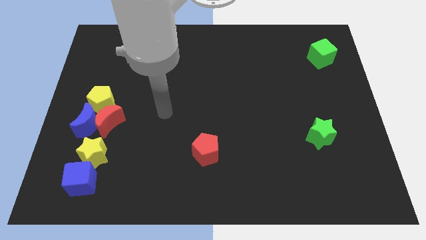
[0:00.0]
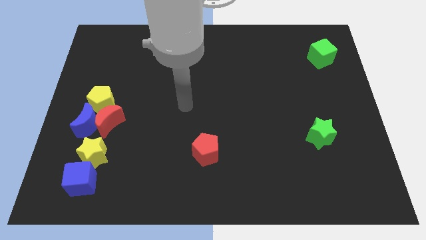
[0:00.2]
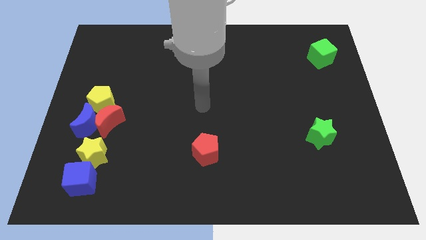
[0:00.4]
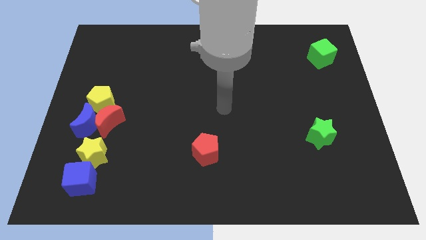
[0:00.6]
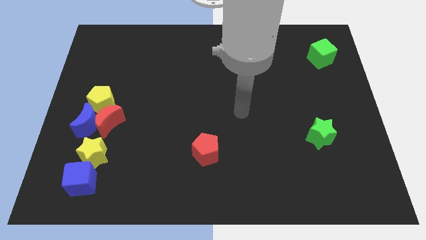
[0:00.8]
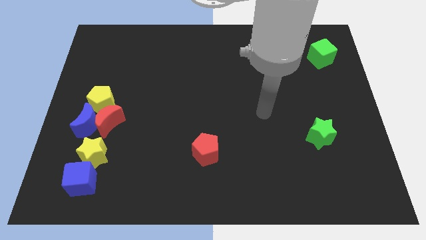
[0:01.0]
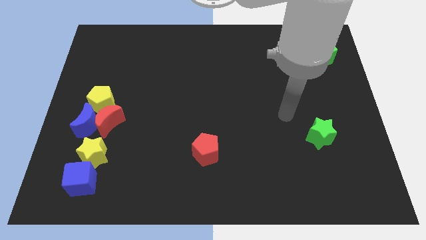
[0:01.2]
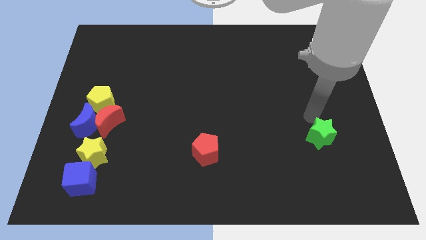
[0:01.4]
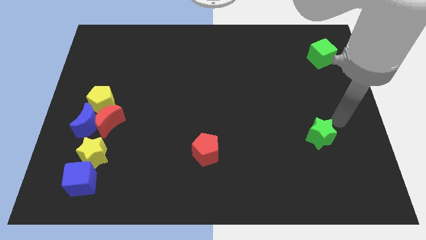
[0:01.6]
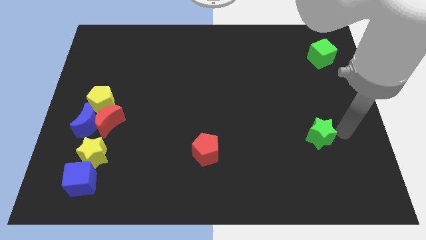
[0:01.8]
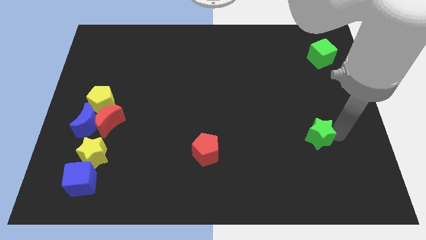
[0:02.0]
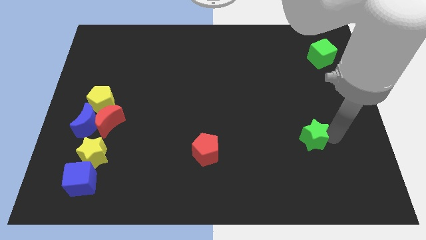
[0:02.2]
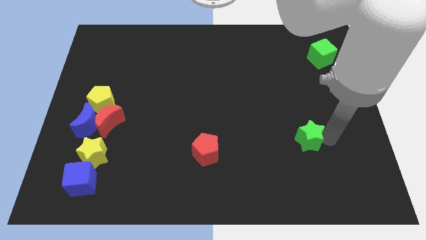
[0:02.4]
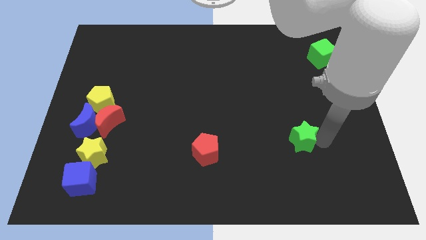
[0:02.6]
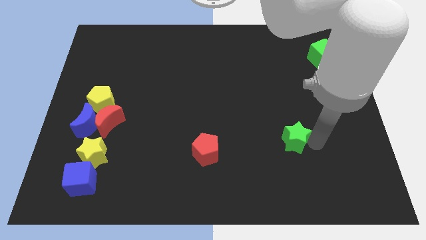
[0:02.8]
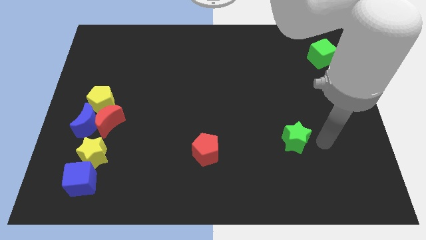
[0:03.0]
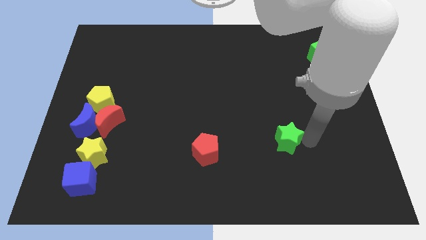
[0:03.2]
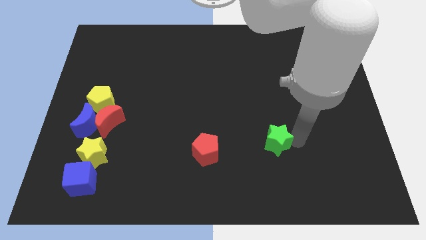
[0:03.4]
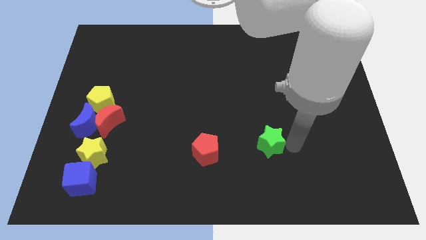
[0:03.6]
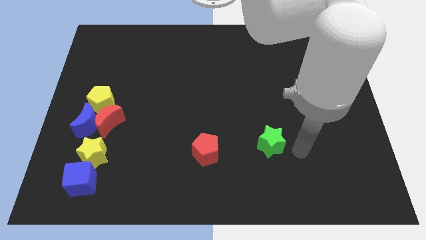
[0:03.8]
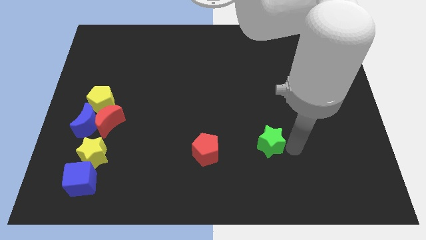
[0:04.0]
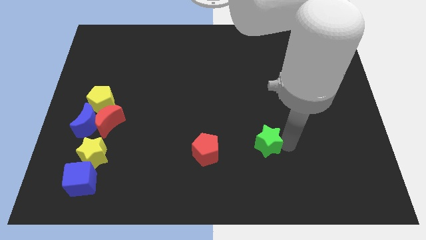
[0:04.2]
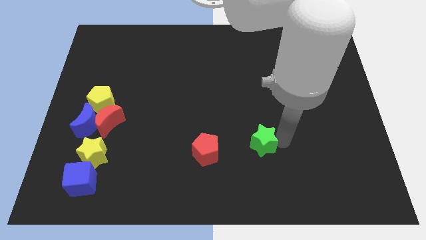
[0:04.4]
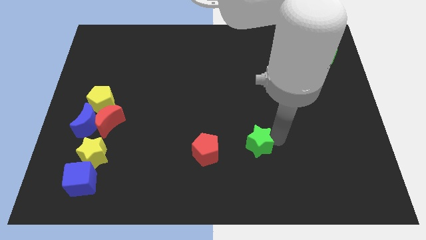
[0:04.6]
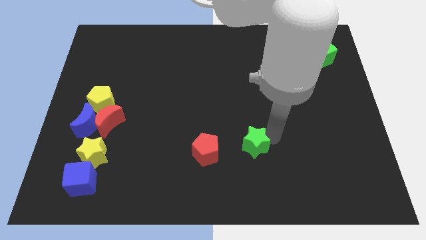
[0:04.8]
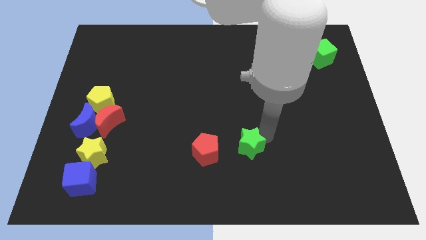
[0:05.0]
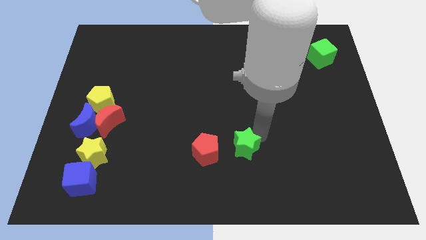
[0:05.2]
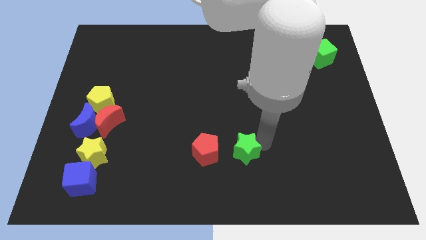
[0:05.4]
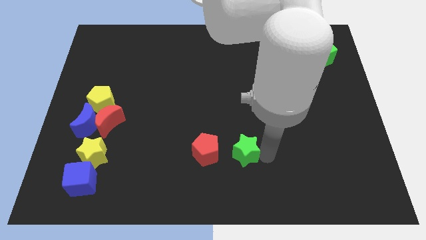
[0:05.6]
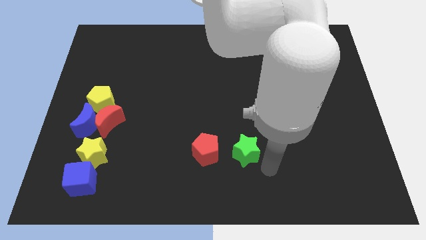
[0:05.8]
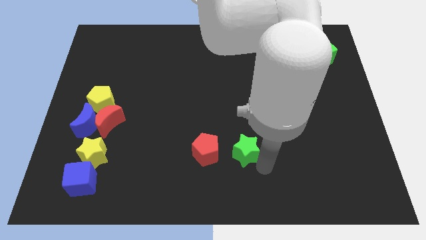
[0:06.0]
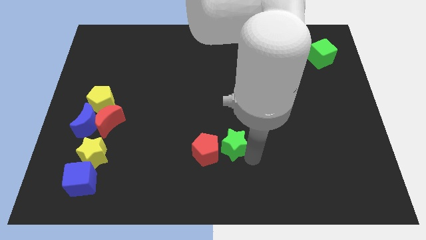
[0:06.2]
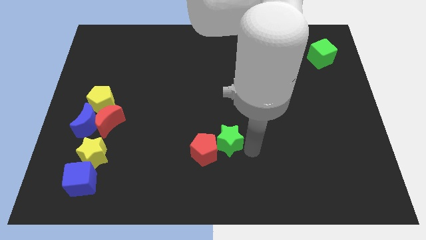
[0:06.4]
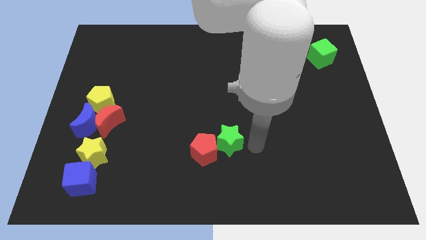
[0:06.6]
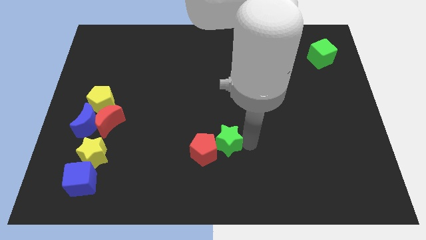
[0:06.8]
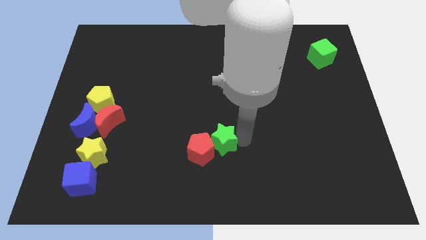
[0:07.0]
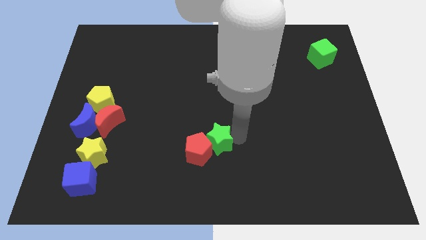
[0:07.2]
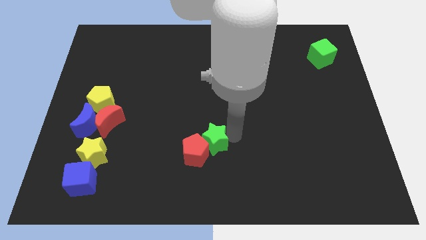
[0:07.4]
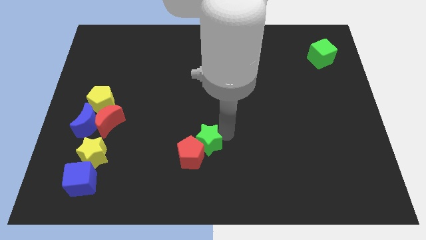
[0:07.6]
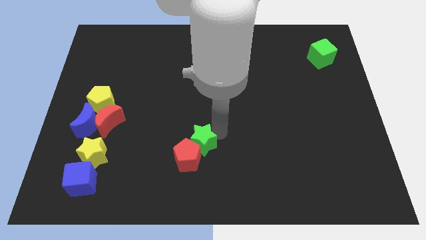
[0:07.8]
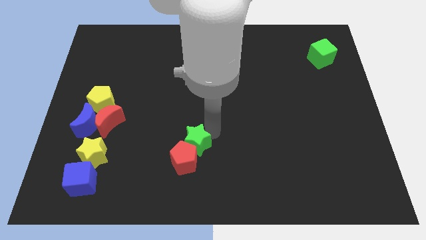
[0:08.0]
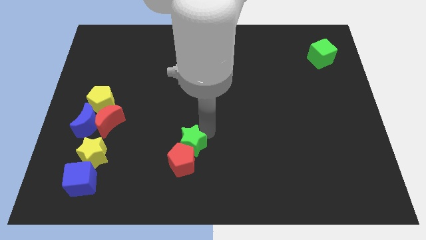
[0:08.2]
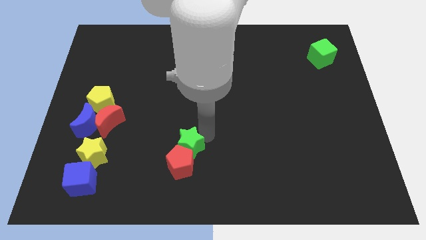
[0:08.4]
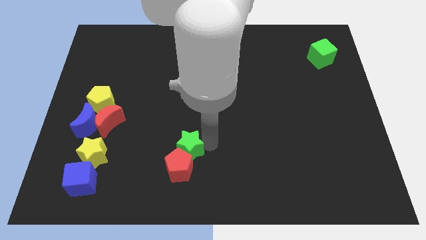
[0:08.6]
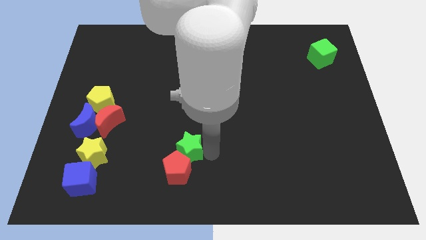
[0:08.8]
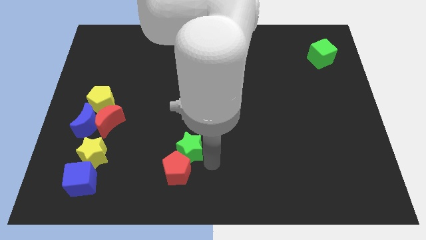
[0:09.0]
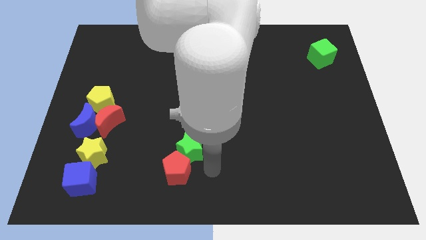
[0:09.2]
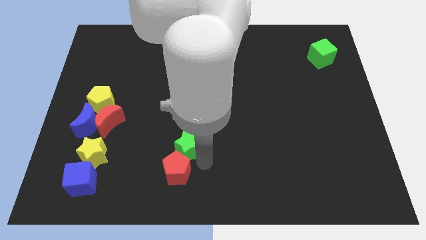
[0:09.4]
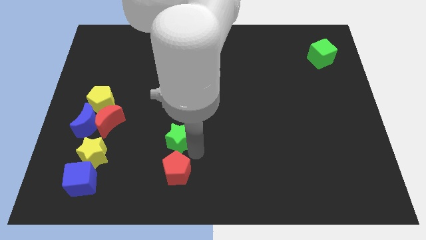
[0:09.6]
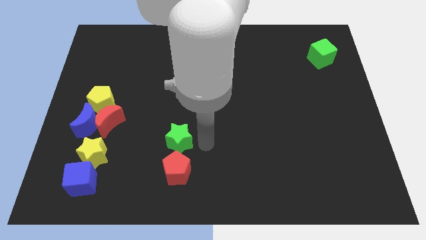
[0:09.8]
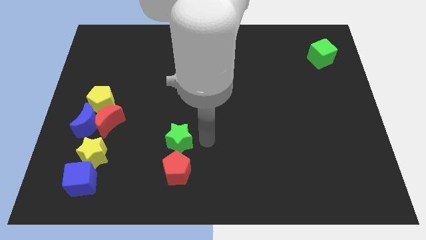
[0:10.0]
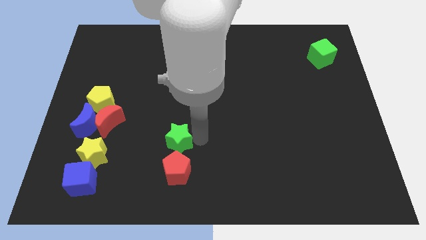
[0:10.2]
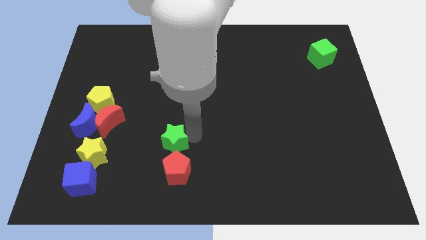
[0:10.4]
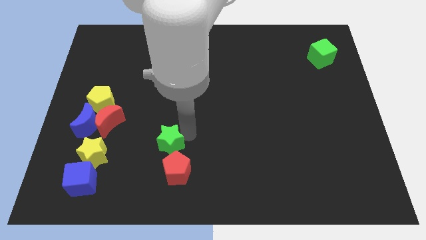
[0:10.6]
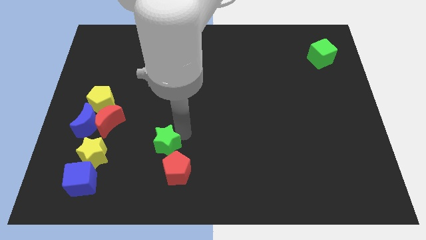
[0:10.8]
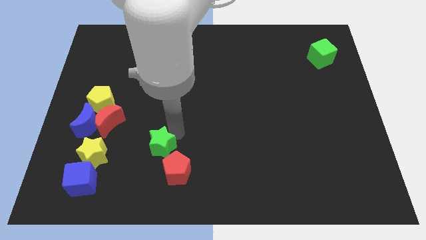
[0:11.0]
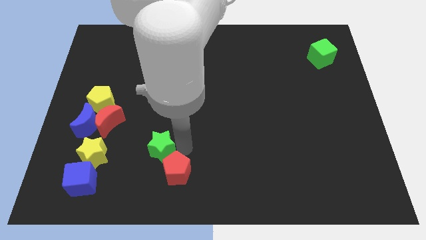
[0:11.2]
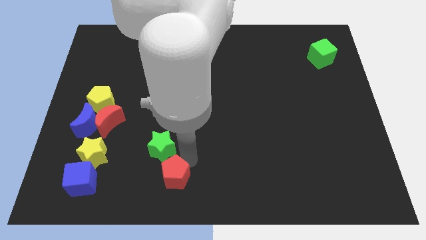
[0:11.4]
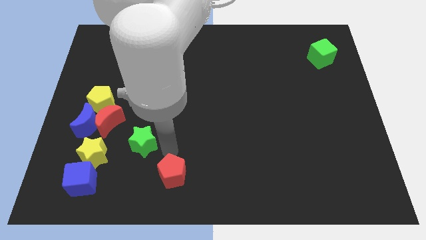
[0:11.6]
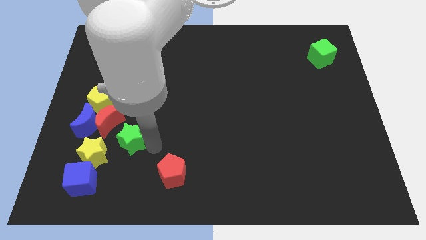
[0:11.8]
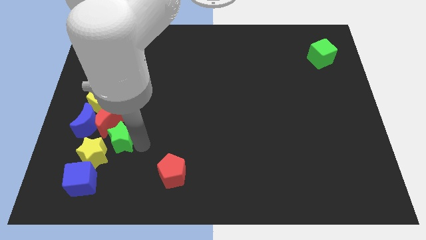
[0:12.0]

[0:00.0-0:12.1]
slide the green star towards the red moon

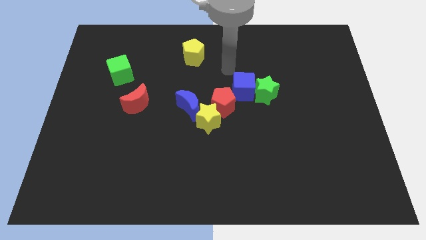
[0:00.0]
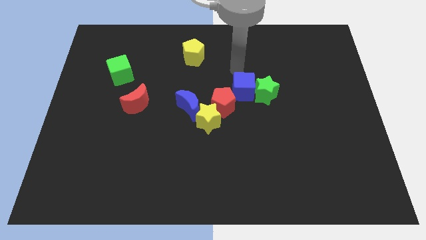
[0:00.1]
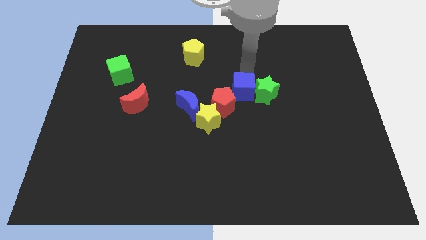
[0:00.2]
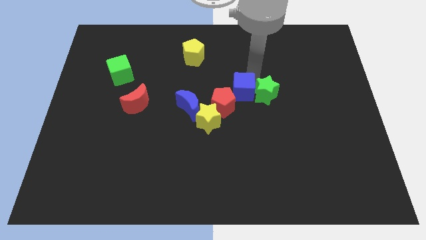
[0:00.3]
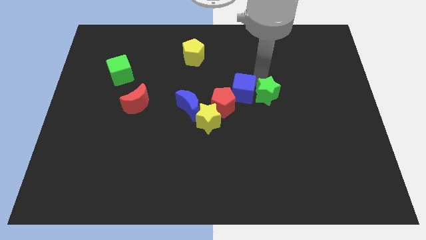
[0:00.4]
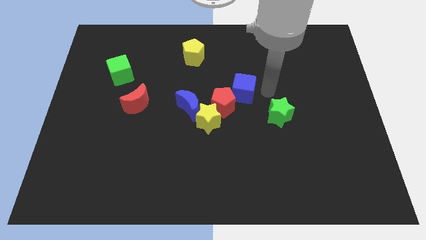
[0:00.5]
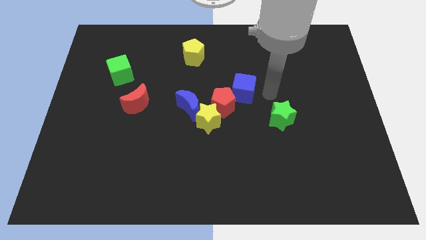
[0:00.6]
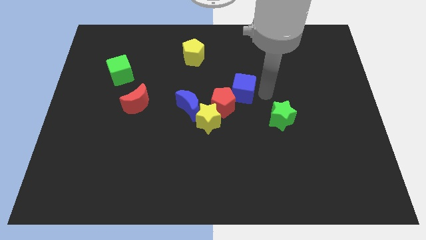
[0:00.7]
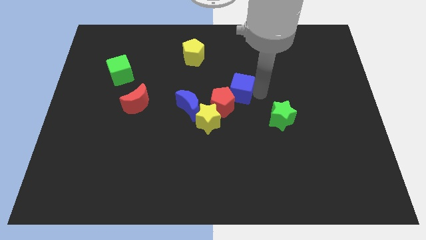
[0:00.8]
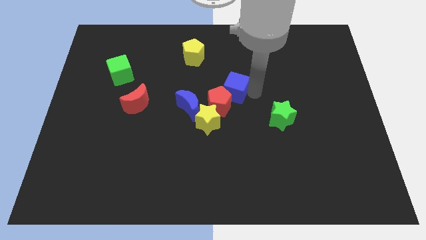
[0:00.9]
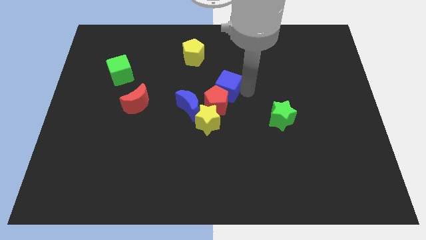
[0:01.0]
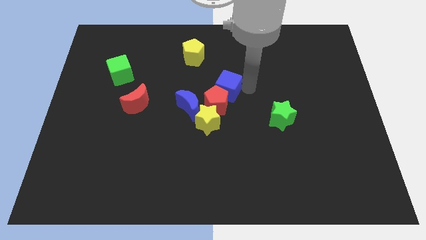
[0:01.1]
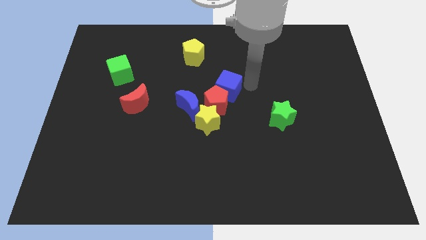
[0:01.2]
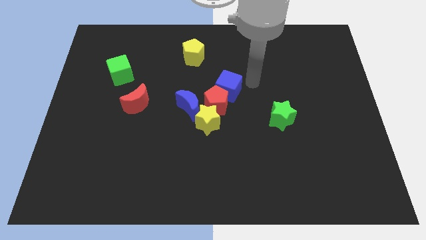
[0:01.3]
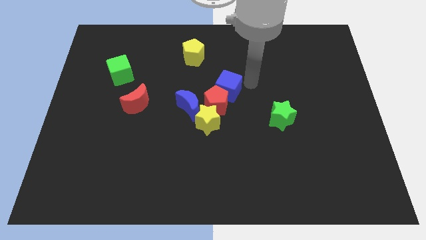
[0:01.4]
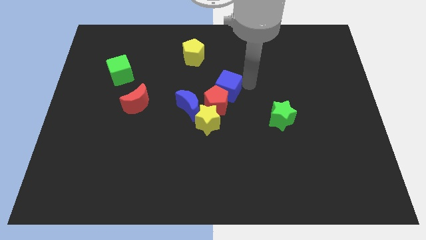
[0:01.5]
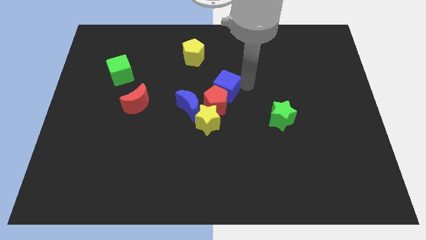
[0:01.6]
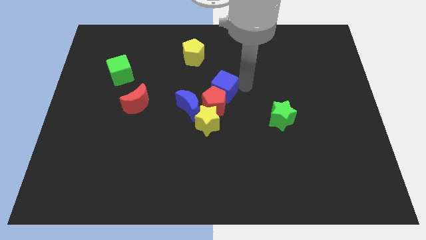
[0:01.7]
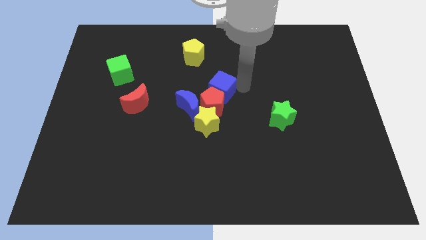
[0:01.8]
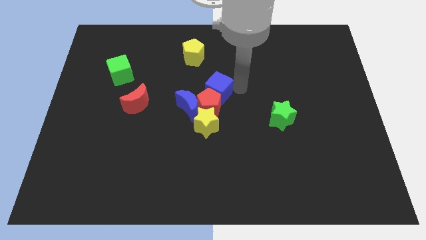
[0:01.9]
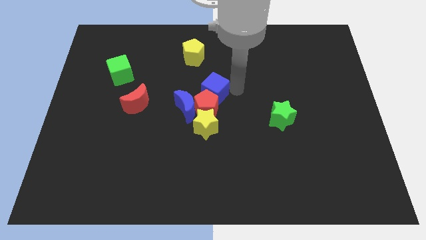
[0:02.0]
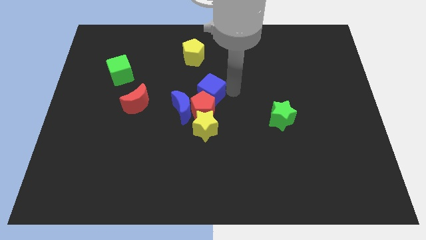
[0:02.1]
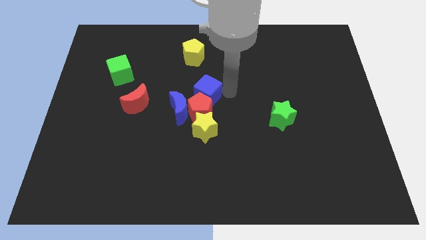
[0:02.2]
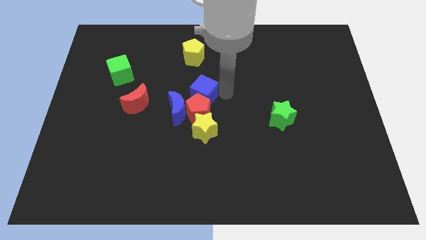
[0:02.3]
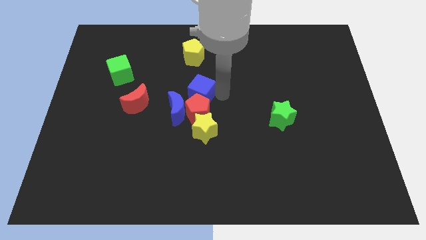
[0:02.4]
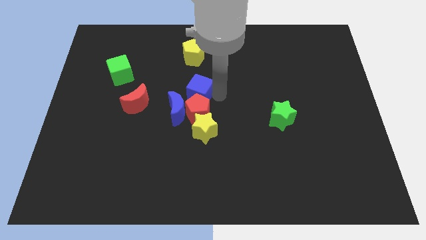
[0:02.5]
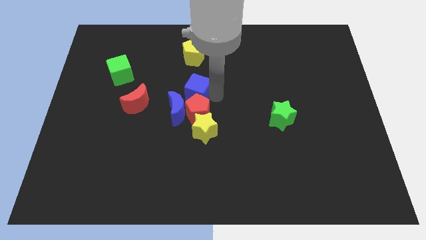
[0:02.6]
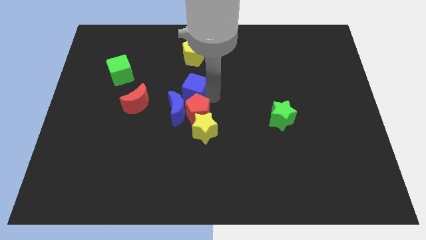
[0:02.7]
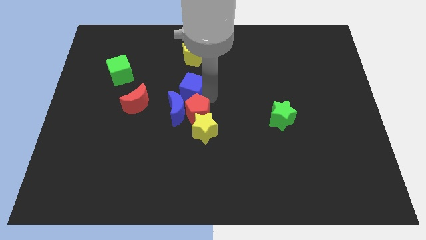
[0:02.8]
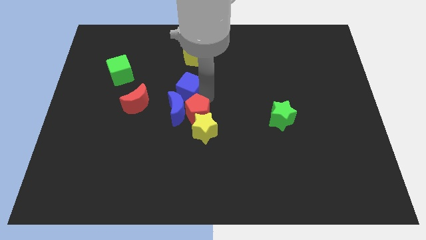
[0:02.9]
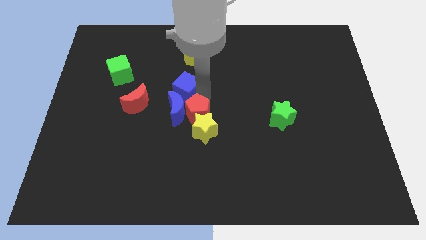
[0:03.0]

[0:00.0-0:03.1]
push the blue cube next to the blue moon
